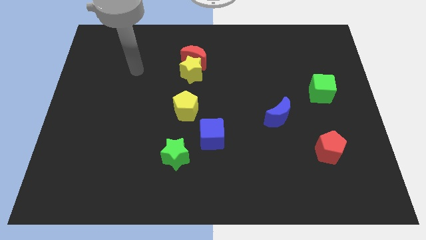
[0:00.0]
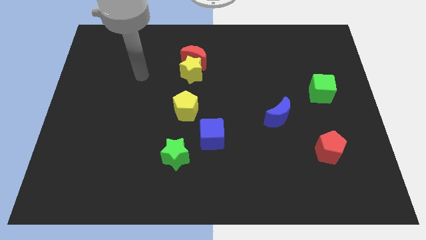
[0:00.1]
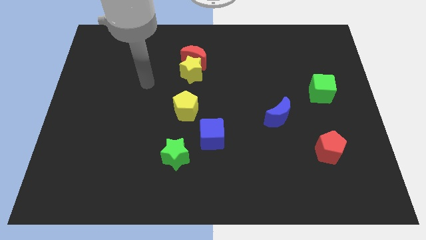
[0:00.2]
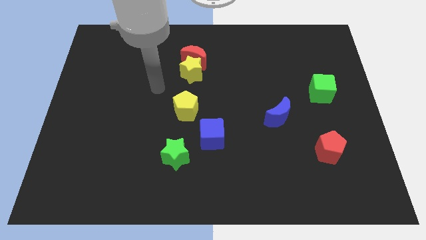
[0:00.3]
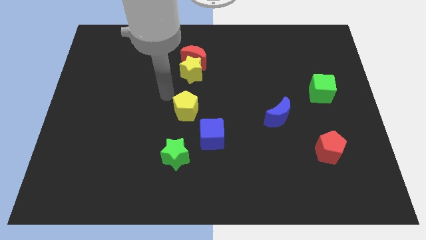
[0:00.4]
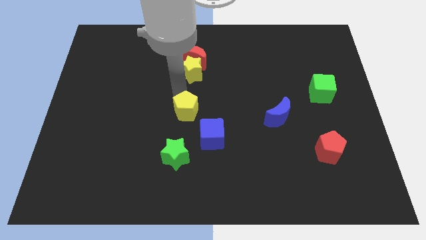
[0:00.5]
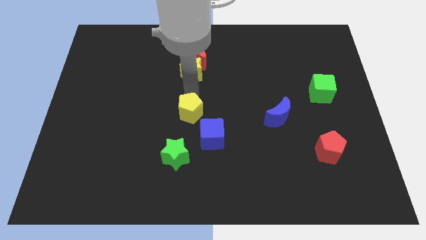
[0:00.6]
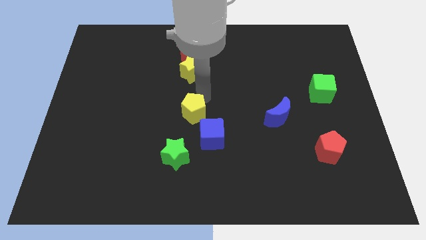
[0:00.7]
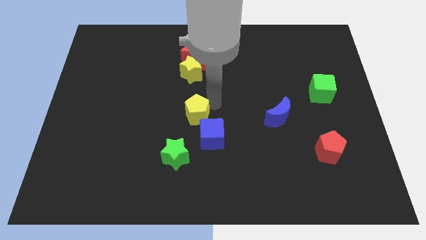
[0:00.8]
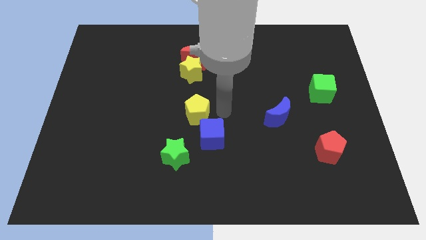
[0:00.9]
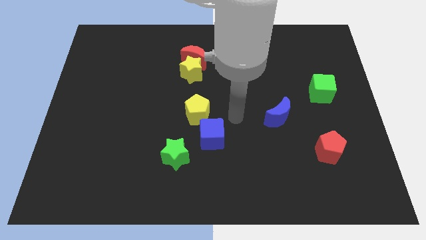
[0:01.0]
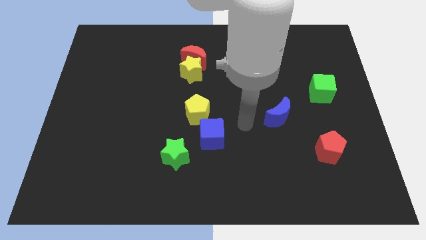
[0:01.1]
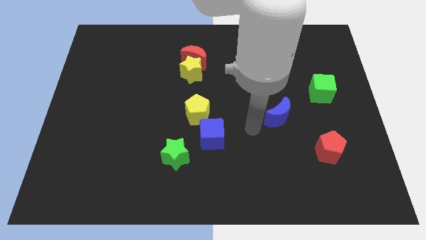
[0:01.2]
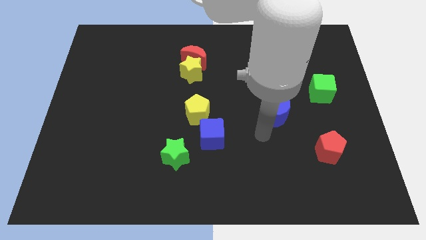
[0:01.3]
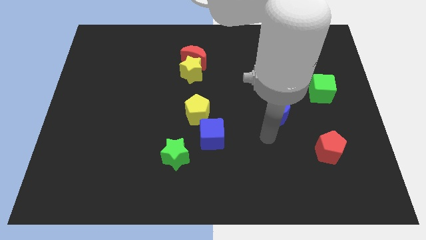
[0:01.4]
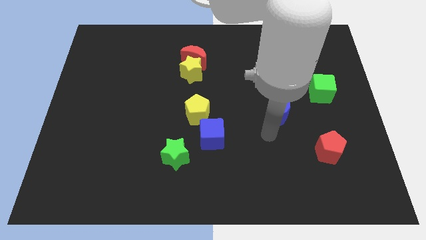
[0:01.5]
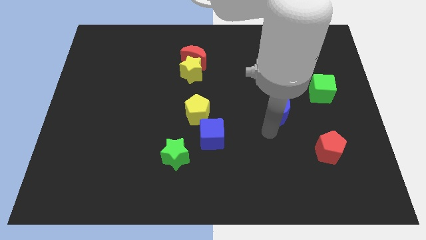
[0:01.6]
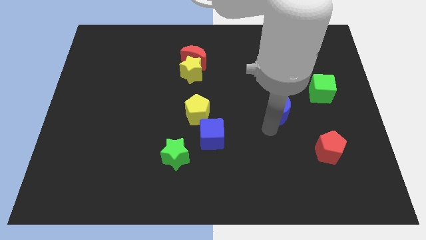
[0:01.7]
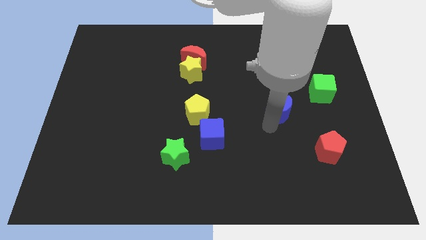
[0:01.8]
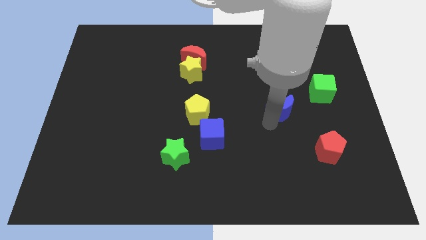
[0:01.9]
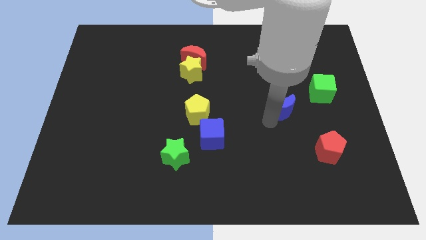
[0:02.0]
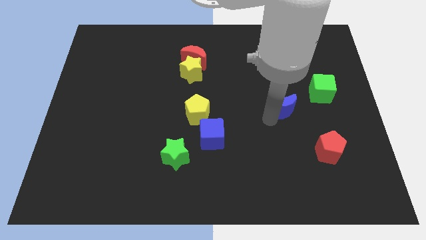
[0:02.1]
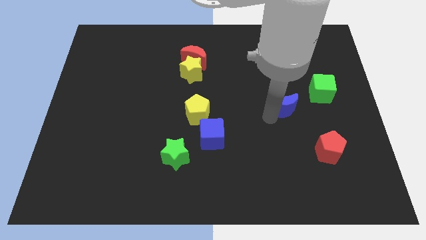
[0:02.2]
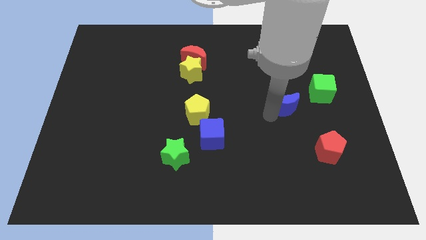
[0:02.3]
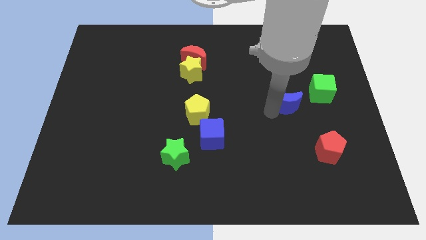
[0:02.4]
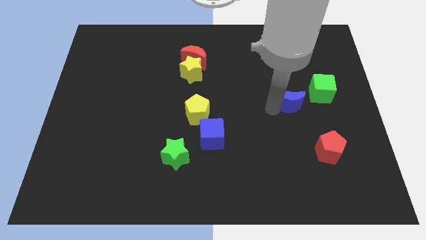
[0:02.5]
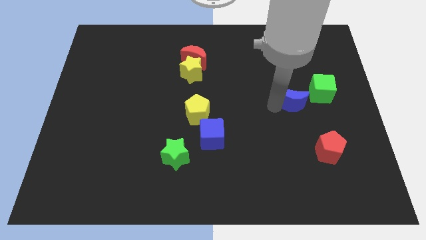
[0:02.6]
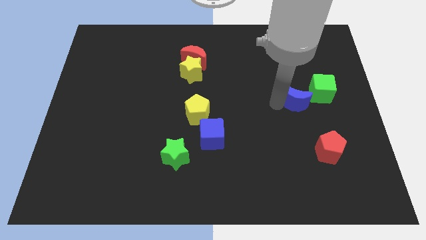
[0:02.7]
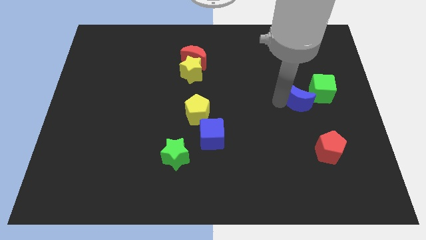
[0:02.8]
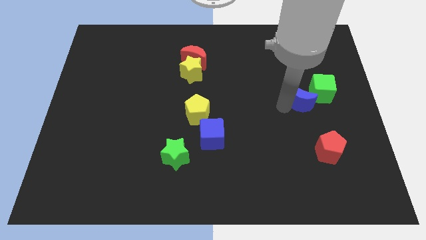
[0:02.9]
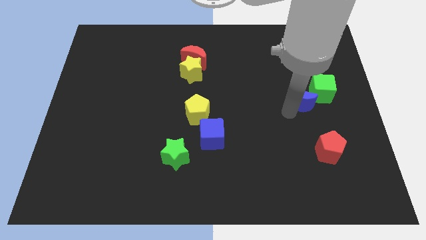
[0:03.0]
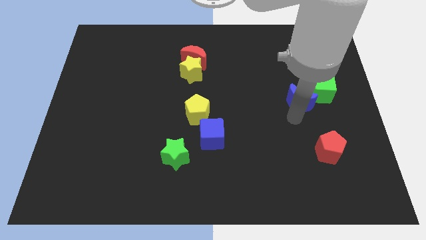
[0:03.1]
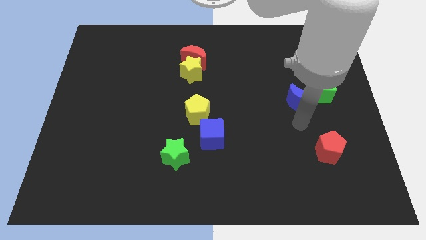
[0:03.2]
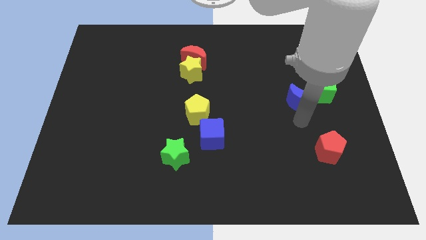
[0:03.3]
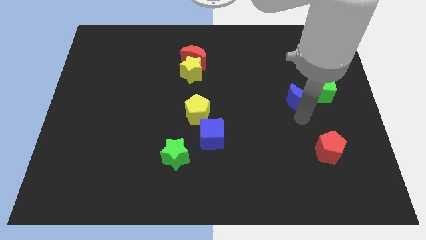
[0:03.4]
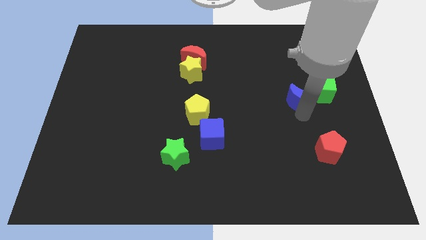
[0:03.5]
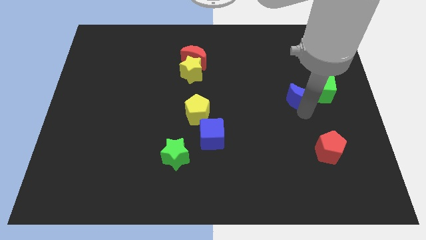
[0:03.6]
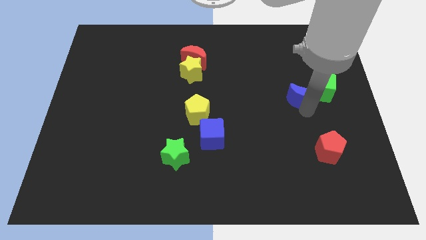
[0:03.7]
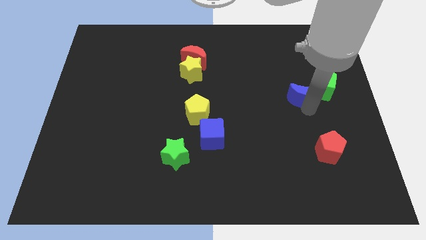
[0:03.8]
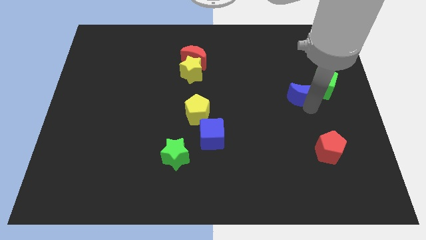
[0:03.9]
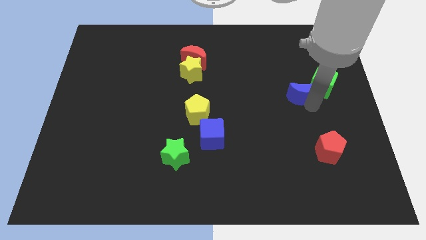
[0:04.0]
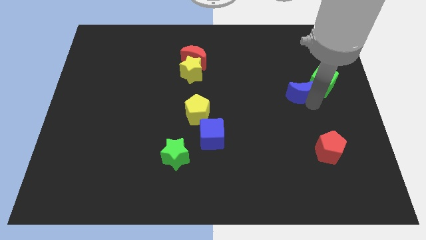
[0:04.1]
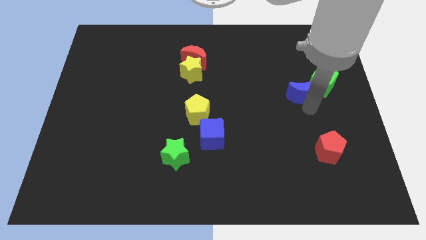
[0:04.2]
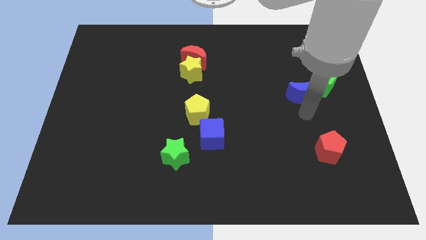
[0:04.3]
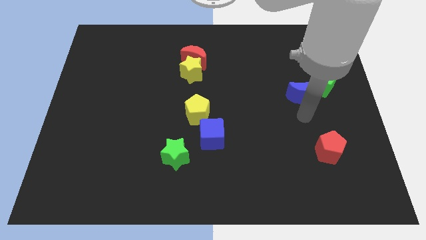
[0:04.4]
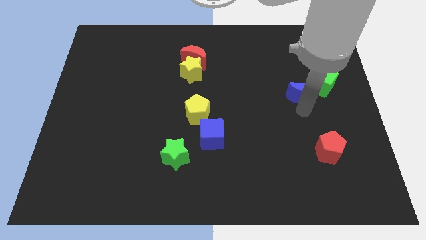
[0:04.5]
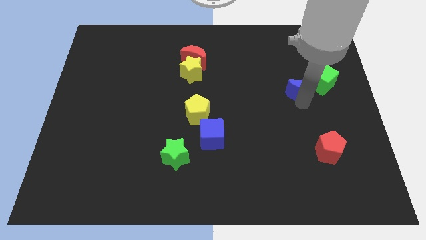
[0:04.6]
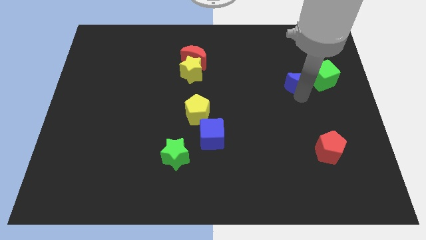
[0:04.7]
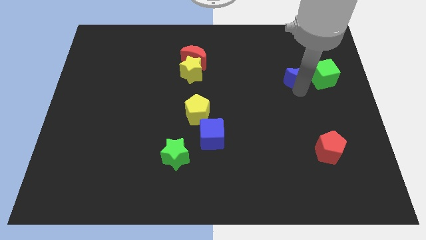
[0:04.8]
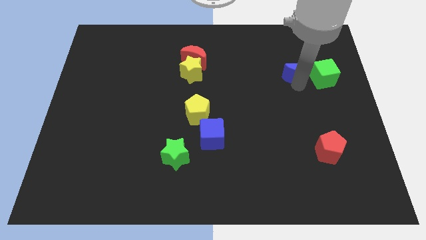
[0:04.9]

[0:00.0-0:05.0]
push the blue moon to the top left side of the green cube

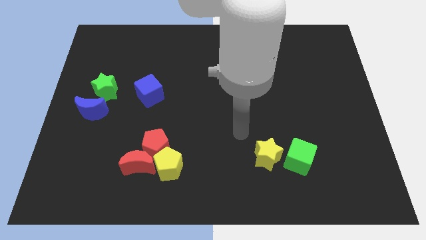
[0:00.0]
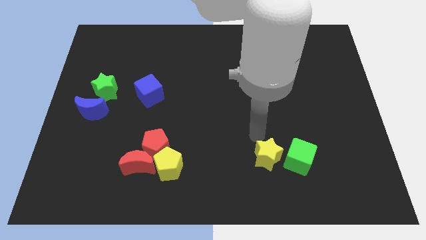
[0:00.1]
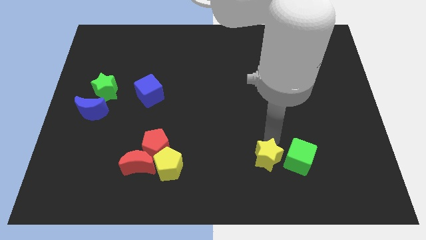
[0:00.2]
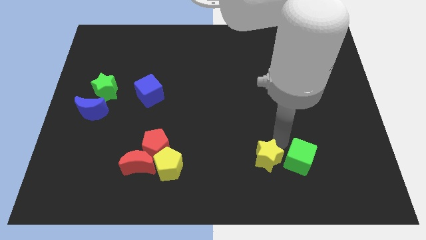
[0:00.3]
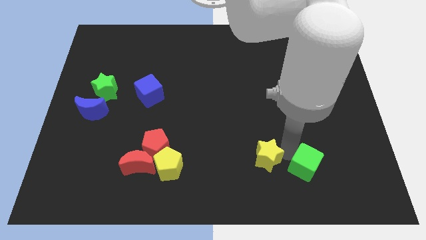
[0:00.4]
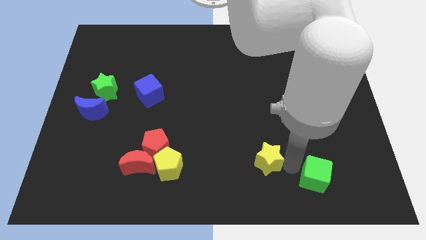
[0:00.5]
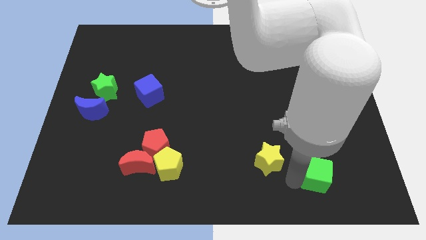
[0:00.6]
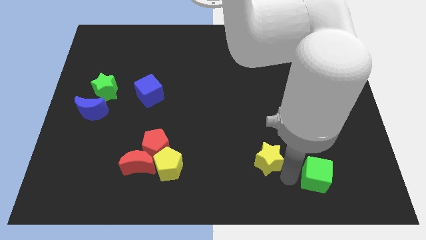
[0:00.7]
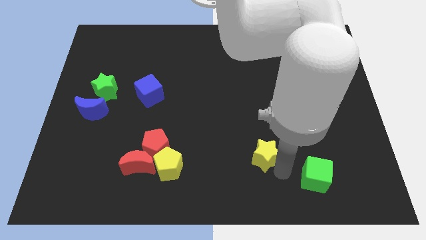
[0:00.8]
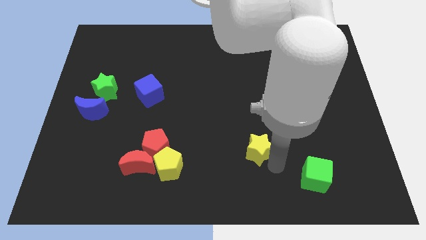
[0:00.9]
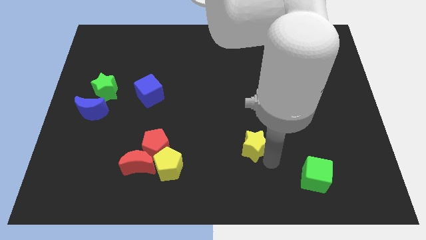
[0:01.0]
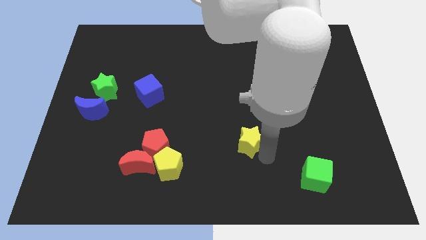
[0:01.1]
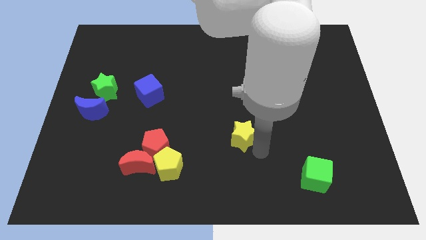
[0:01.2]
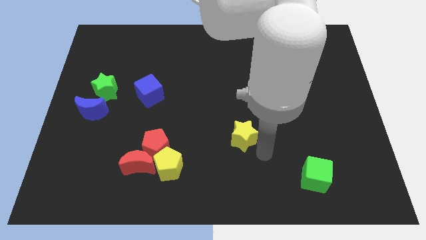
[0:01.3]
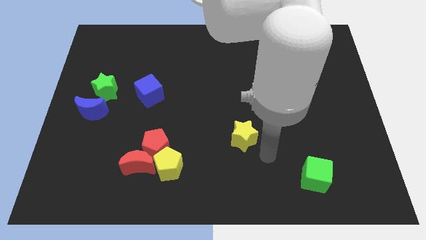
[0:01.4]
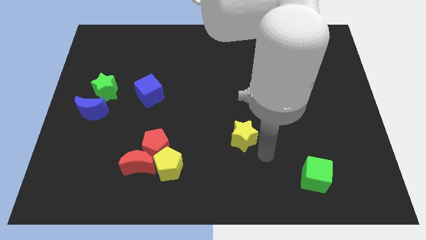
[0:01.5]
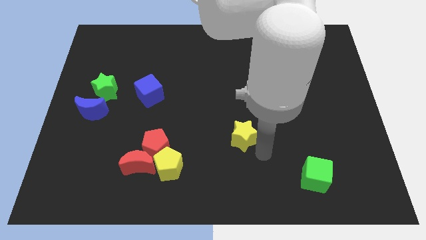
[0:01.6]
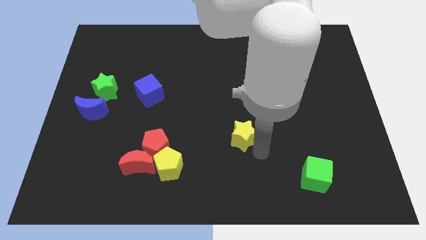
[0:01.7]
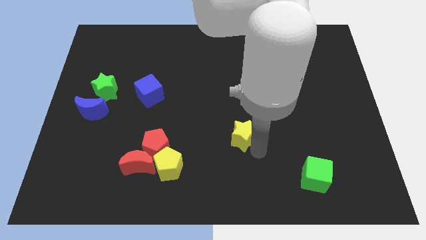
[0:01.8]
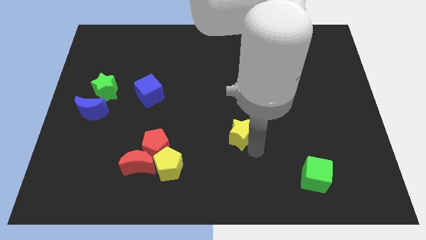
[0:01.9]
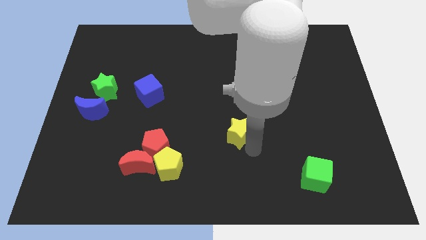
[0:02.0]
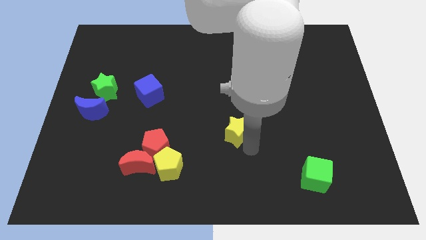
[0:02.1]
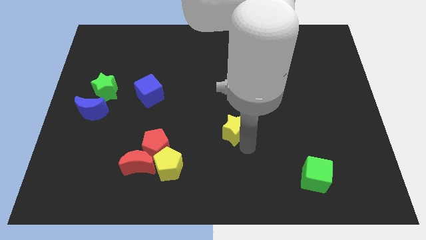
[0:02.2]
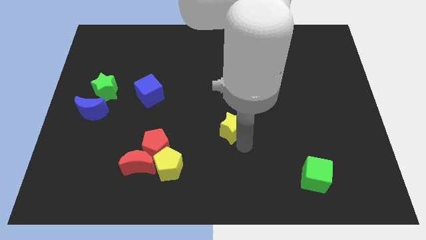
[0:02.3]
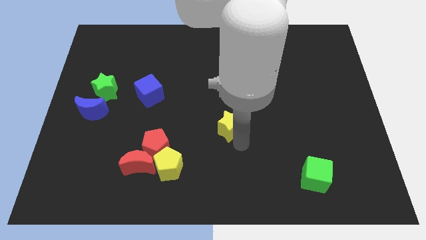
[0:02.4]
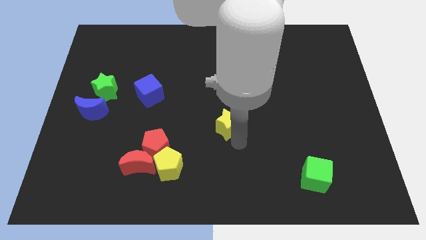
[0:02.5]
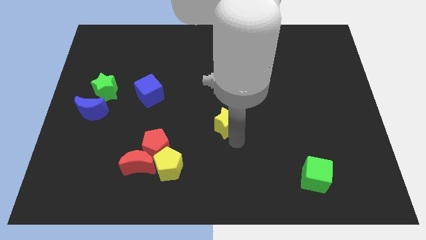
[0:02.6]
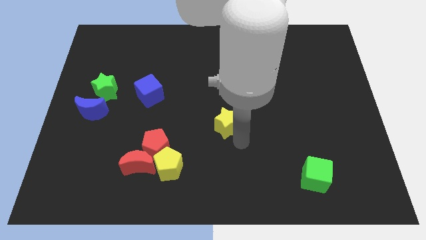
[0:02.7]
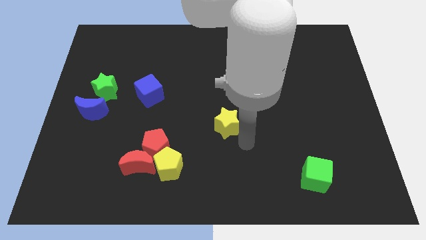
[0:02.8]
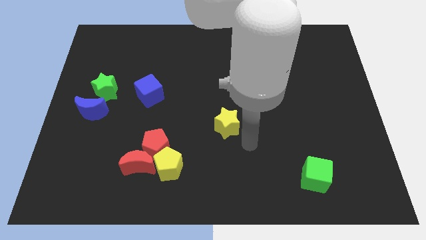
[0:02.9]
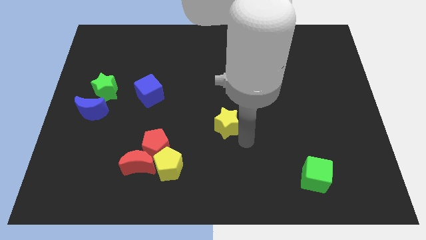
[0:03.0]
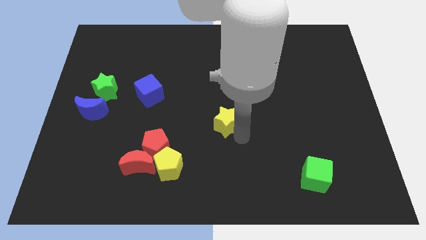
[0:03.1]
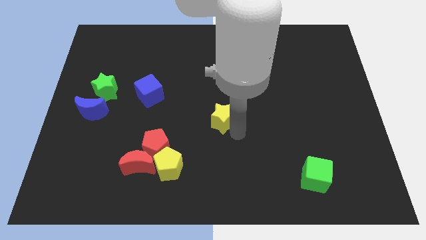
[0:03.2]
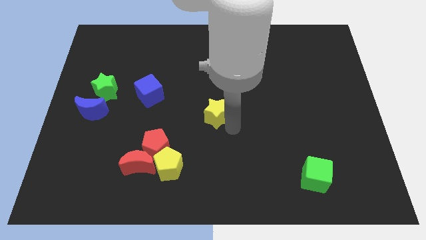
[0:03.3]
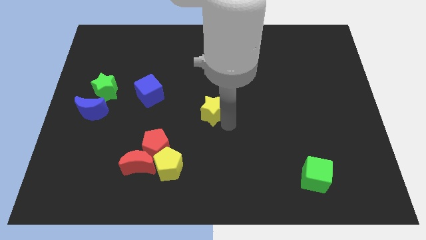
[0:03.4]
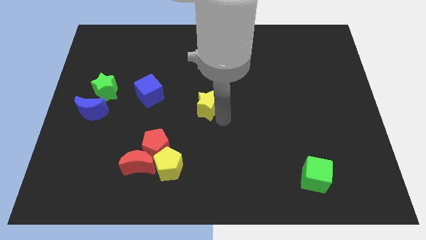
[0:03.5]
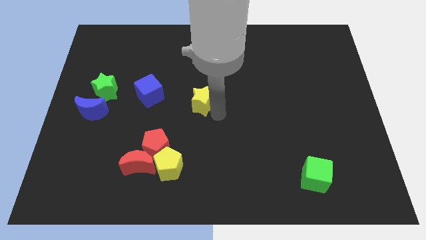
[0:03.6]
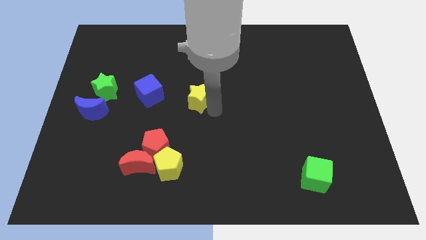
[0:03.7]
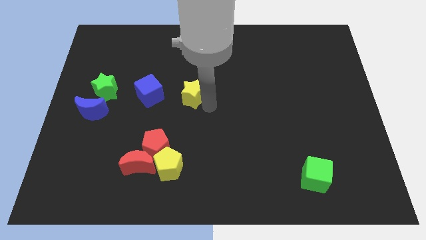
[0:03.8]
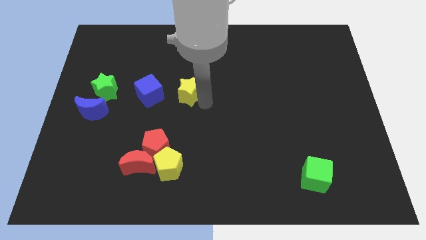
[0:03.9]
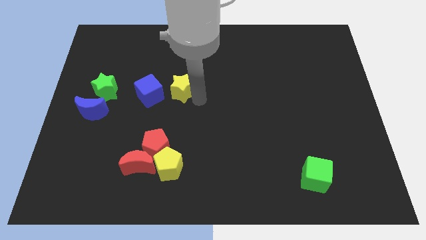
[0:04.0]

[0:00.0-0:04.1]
push the yellow star to the top right of the blue cube
